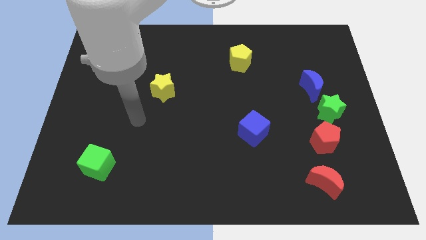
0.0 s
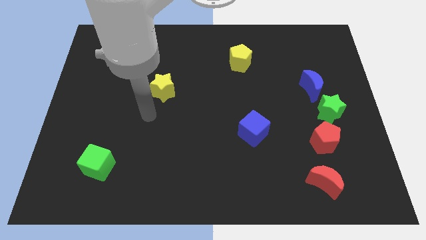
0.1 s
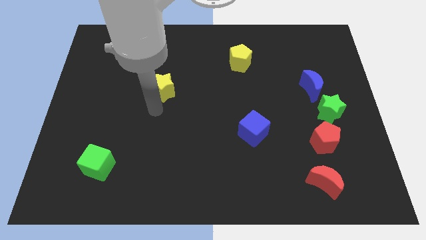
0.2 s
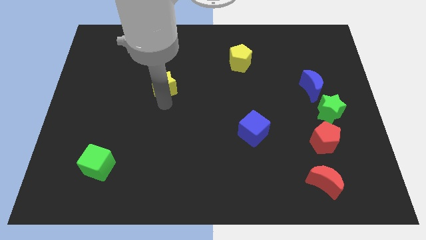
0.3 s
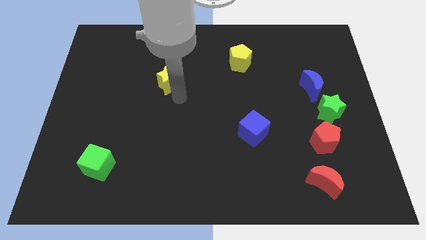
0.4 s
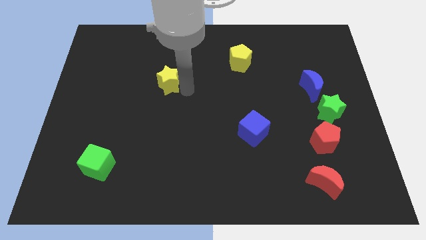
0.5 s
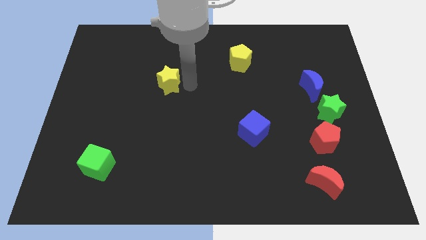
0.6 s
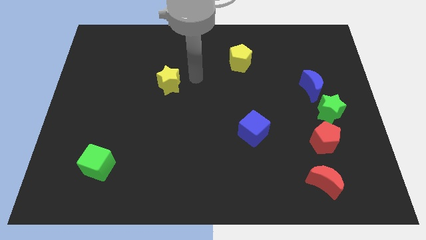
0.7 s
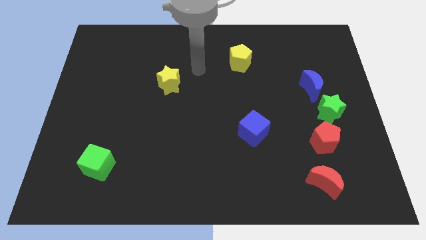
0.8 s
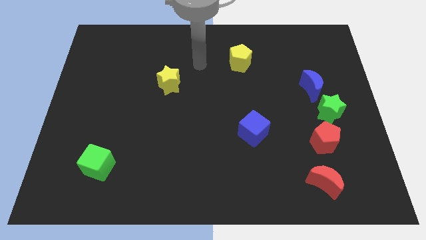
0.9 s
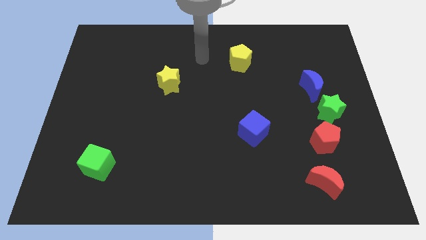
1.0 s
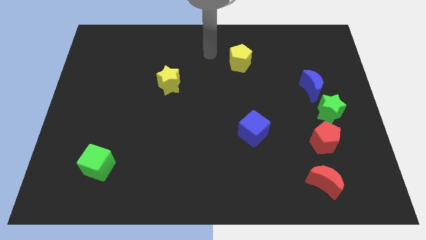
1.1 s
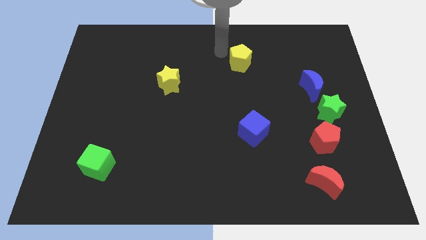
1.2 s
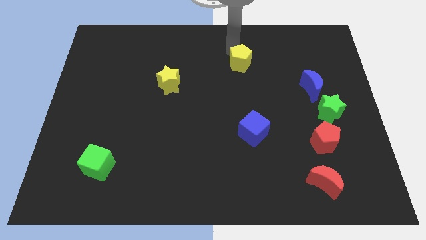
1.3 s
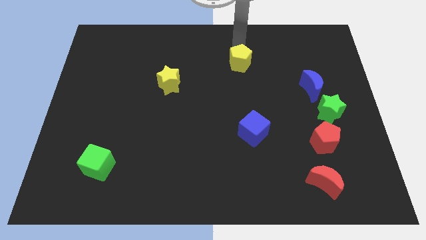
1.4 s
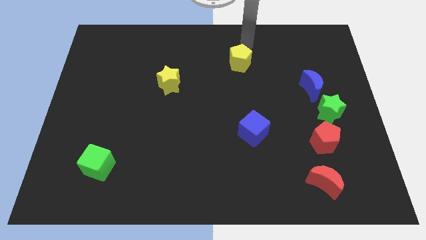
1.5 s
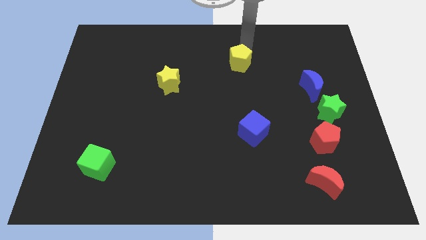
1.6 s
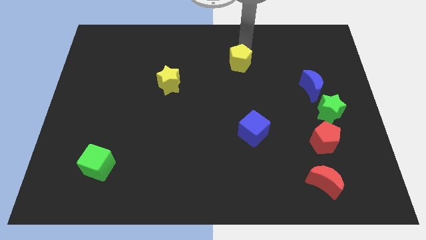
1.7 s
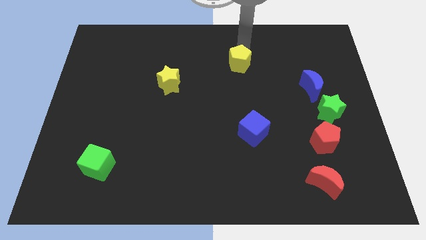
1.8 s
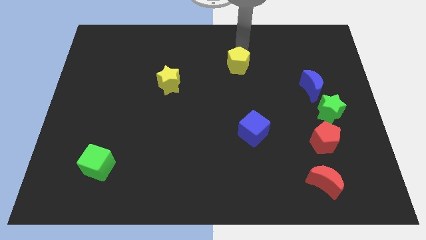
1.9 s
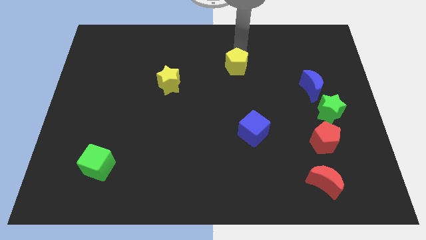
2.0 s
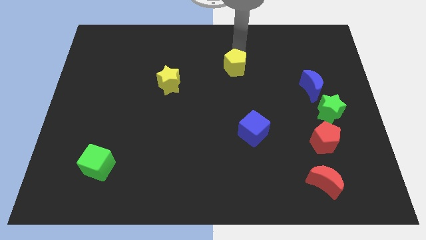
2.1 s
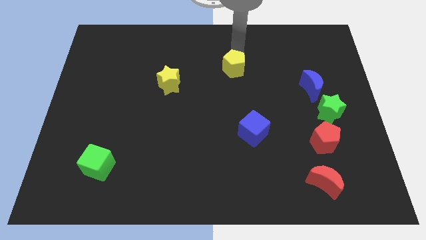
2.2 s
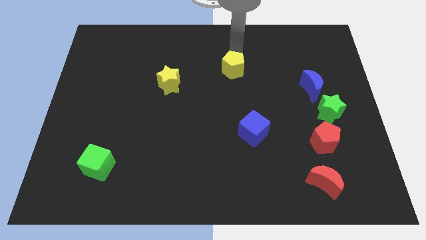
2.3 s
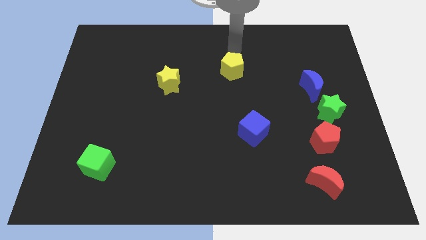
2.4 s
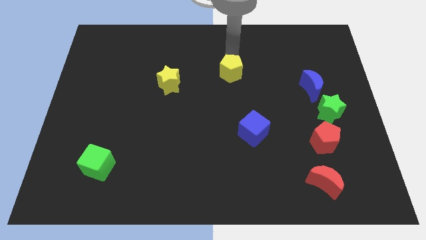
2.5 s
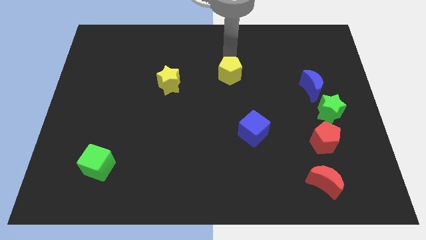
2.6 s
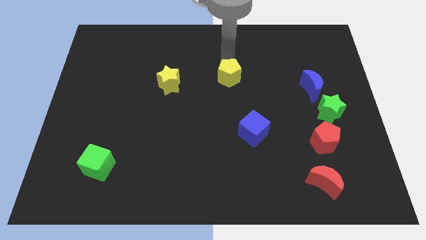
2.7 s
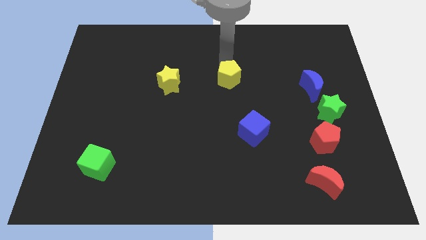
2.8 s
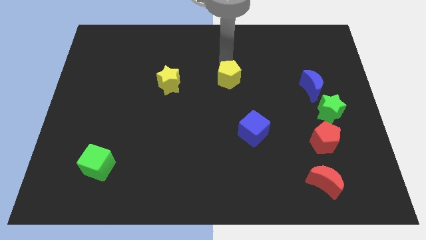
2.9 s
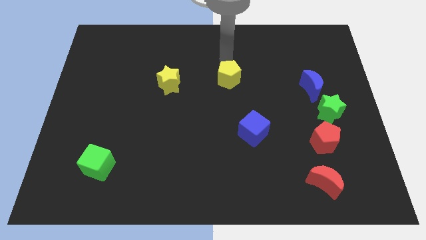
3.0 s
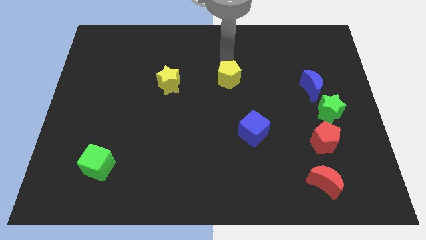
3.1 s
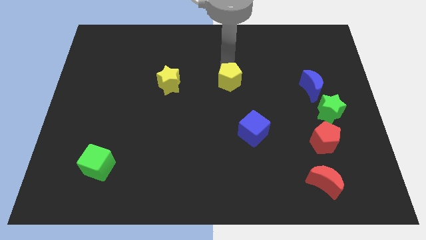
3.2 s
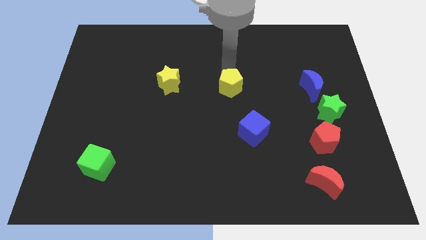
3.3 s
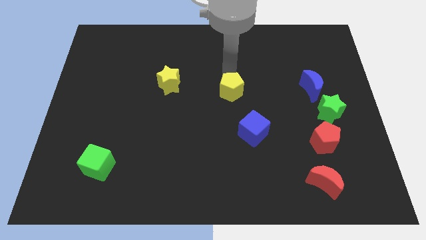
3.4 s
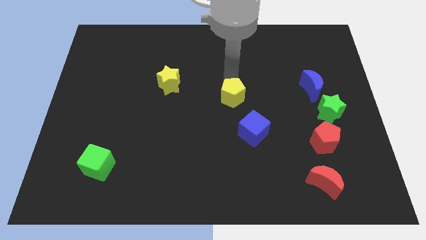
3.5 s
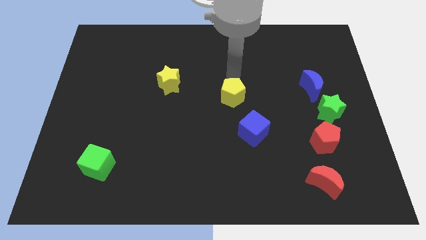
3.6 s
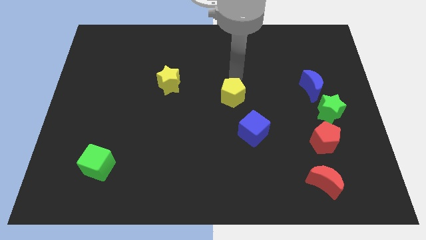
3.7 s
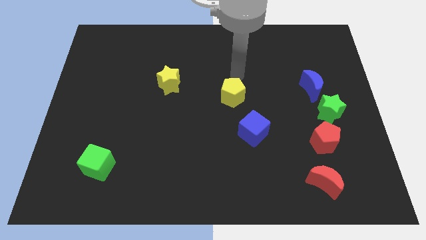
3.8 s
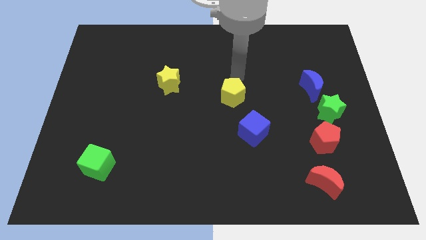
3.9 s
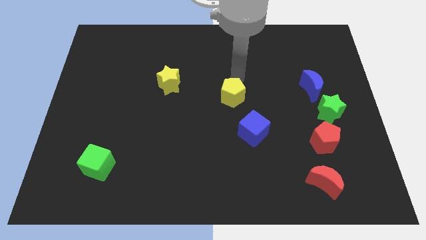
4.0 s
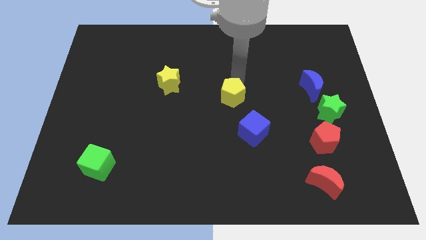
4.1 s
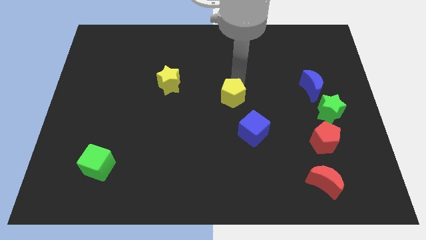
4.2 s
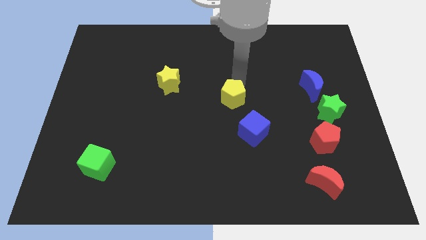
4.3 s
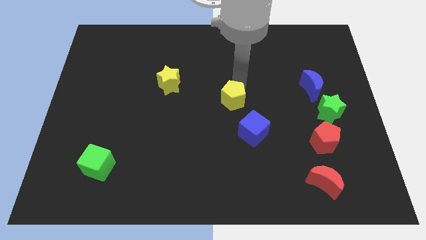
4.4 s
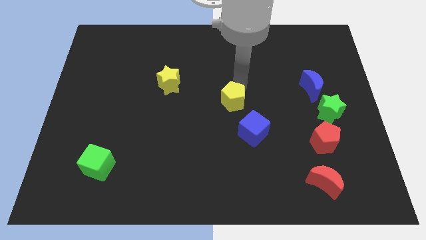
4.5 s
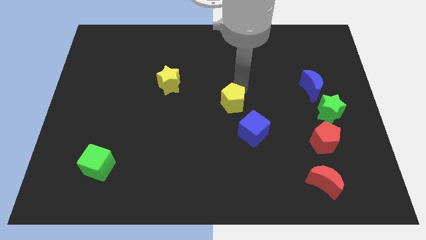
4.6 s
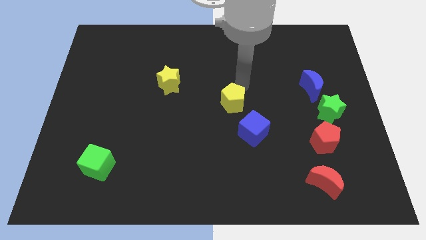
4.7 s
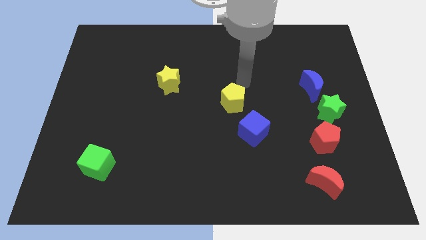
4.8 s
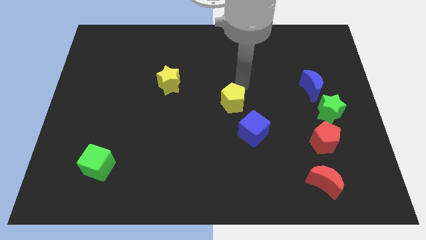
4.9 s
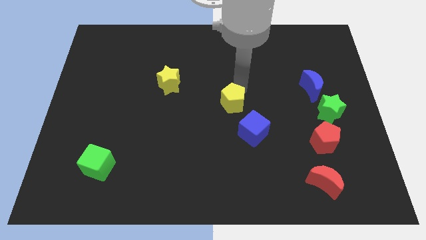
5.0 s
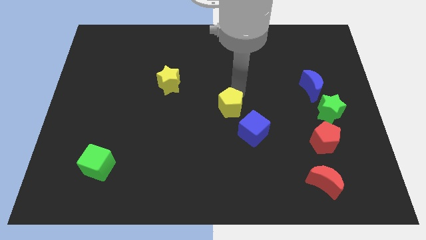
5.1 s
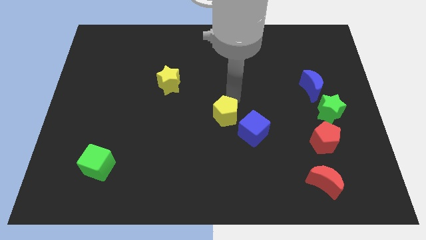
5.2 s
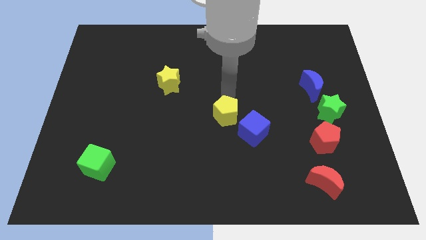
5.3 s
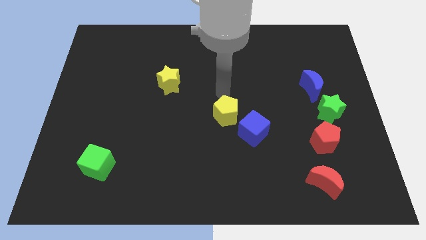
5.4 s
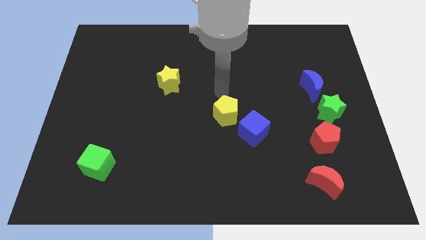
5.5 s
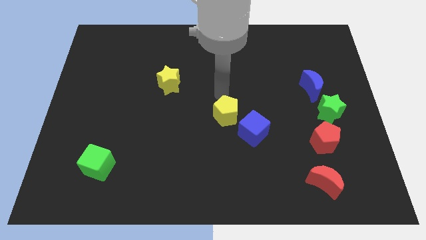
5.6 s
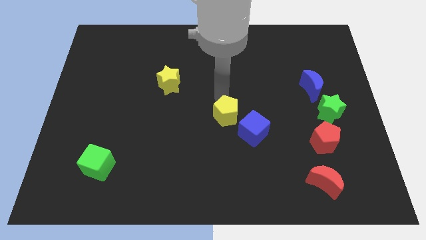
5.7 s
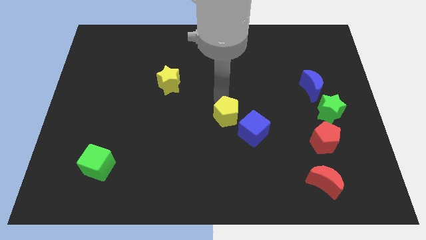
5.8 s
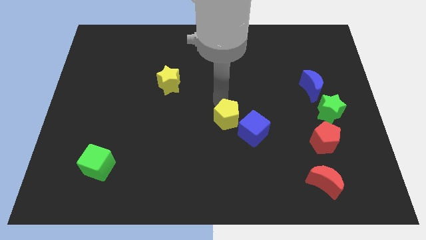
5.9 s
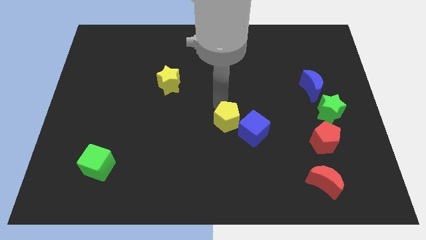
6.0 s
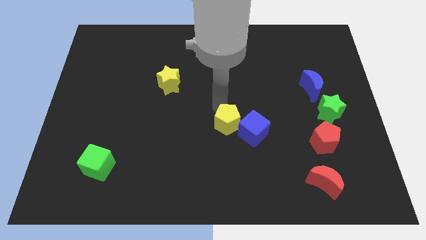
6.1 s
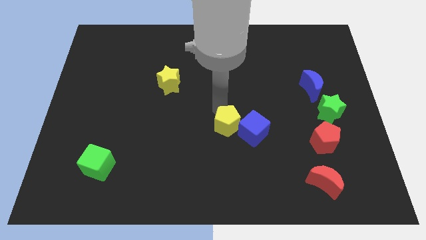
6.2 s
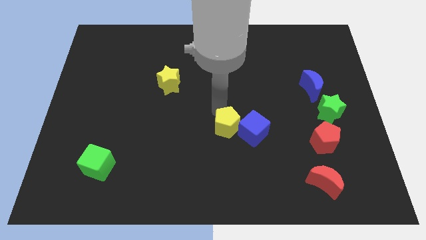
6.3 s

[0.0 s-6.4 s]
slide the yellow pentagon down

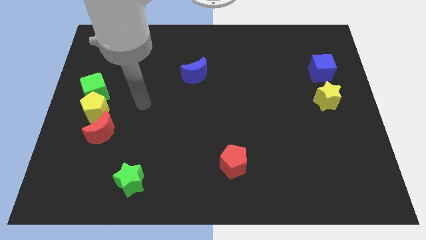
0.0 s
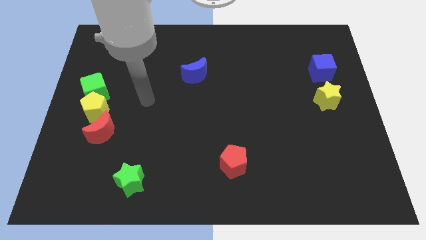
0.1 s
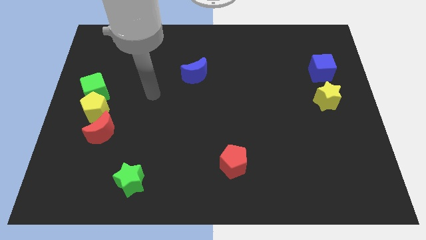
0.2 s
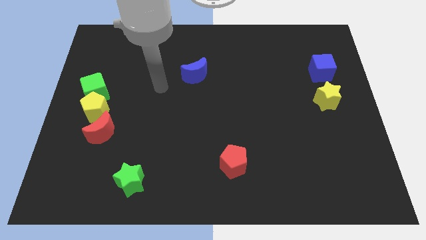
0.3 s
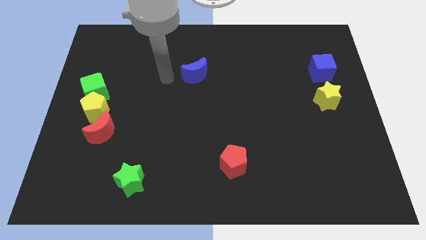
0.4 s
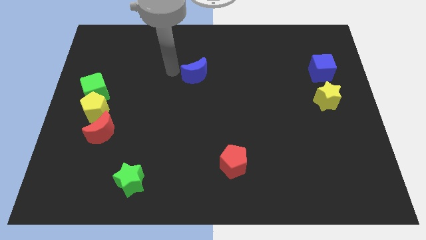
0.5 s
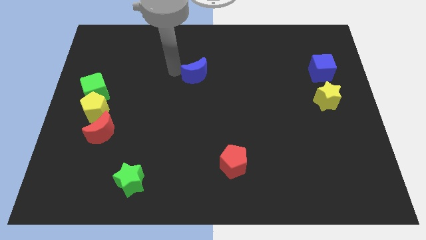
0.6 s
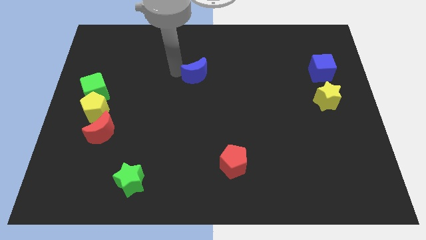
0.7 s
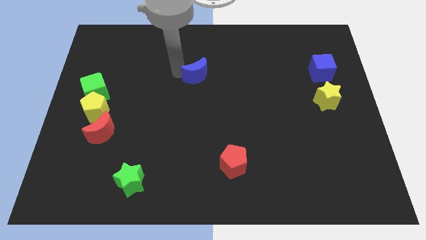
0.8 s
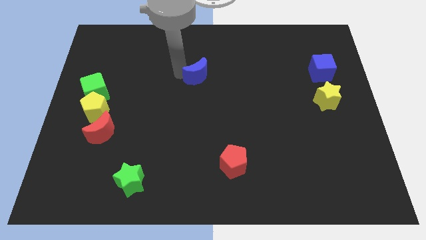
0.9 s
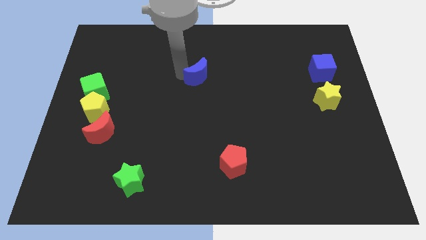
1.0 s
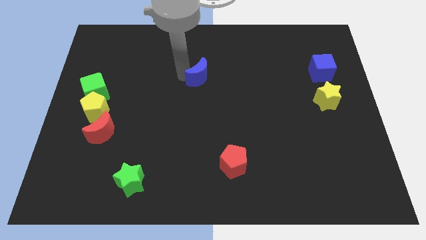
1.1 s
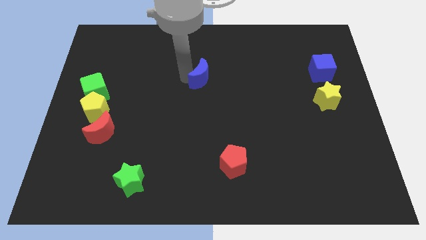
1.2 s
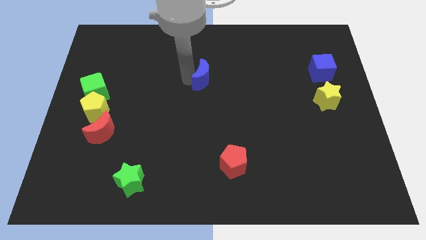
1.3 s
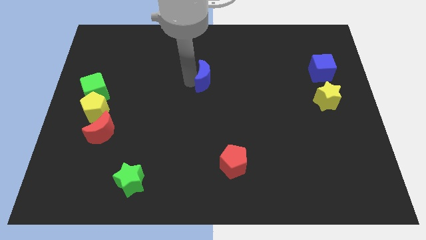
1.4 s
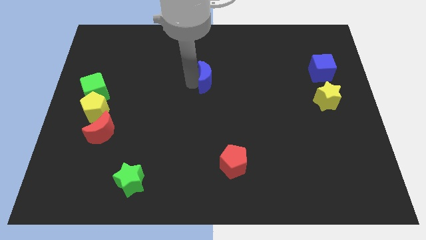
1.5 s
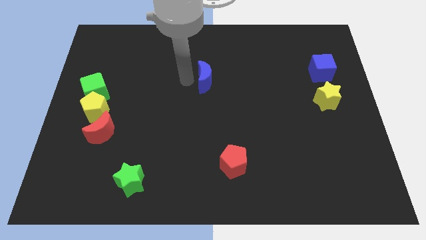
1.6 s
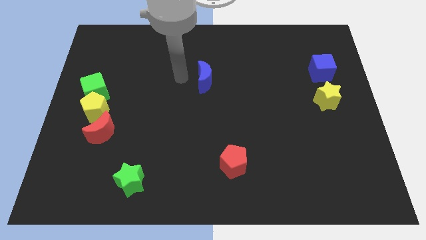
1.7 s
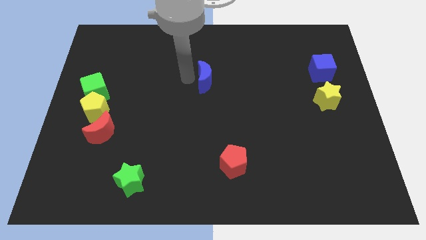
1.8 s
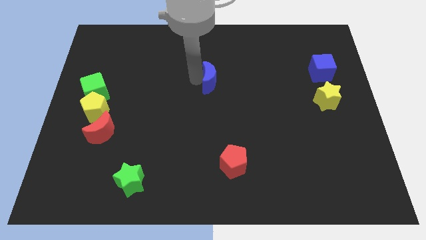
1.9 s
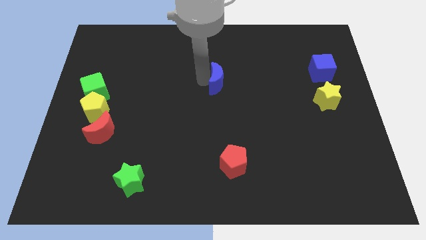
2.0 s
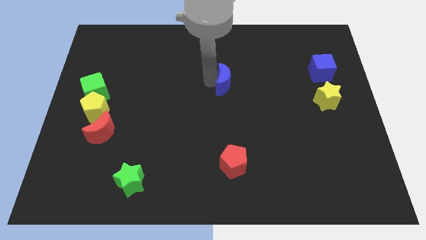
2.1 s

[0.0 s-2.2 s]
slightly move the blue moon to the right
